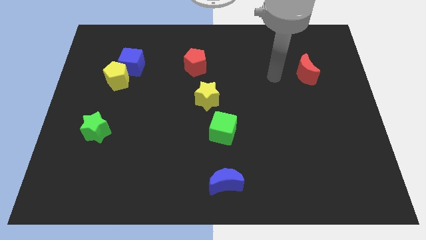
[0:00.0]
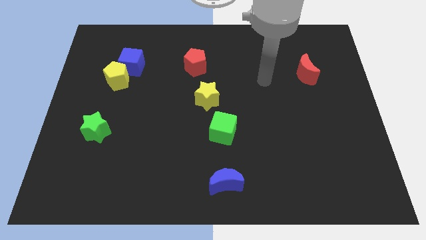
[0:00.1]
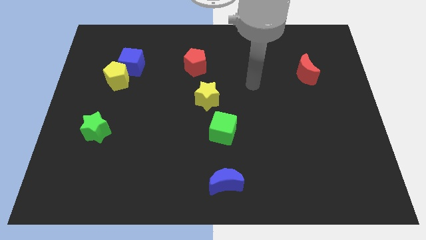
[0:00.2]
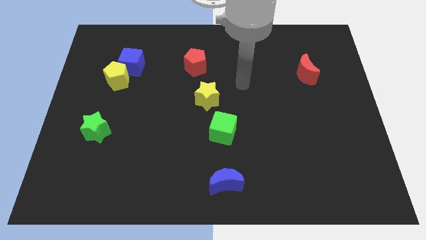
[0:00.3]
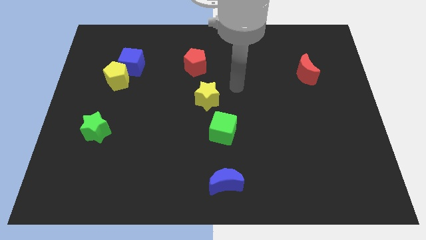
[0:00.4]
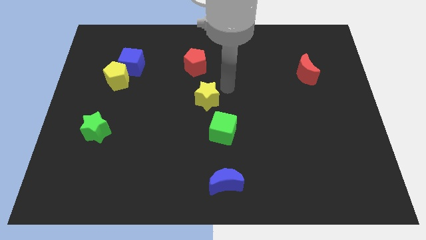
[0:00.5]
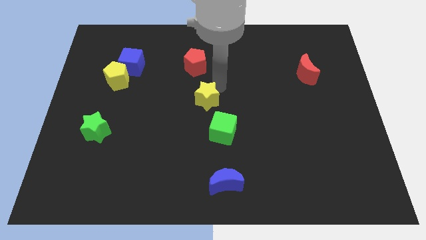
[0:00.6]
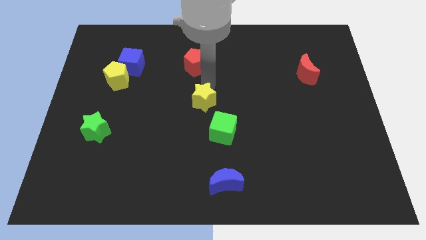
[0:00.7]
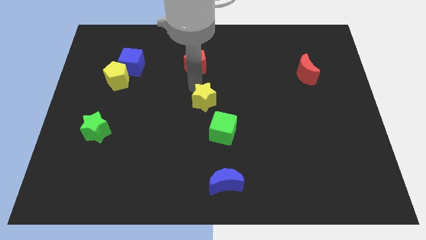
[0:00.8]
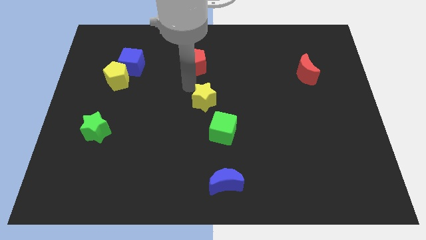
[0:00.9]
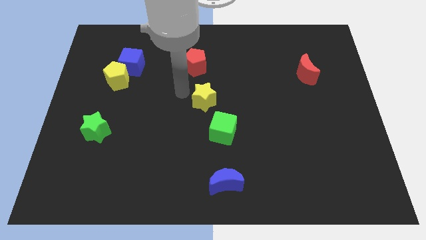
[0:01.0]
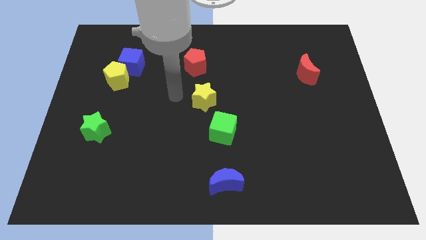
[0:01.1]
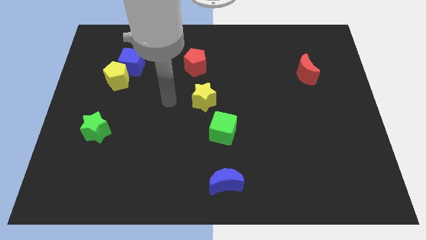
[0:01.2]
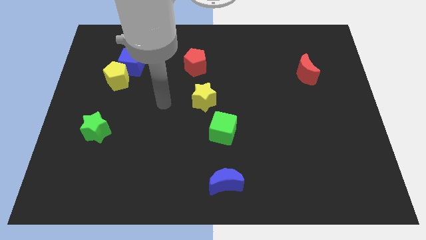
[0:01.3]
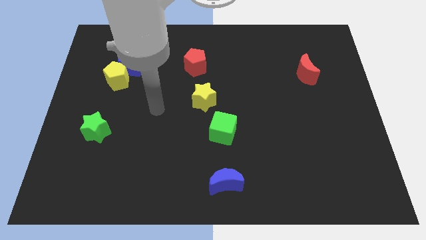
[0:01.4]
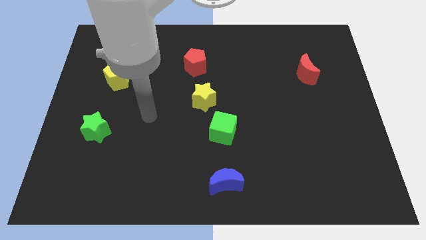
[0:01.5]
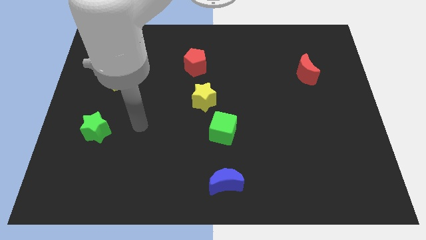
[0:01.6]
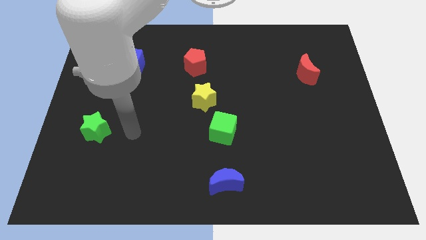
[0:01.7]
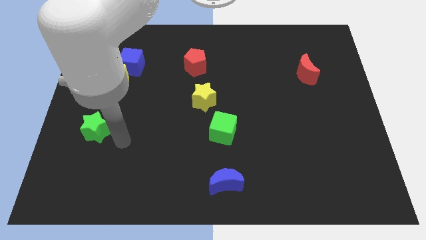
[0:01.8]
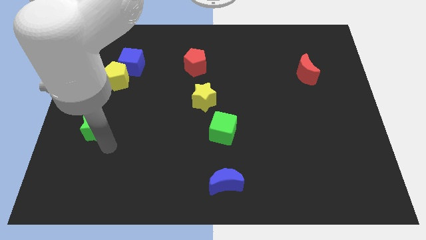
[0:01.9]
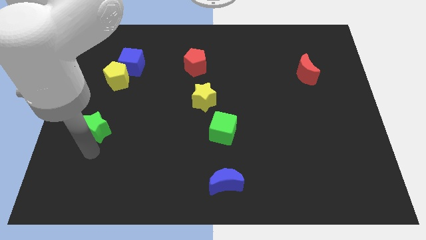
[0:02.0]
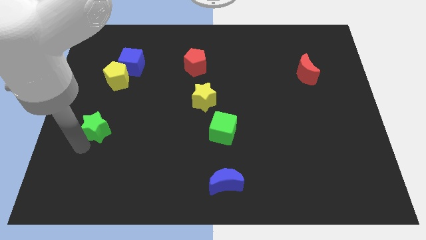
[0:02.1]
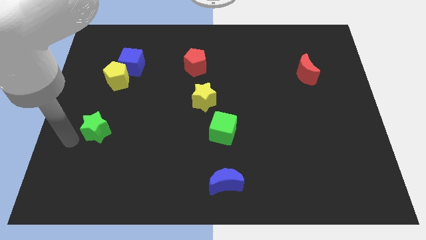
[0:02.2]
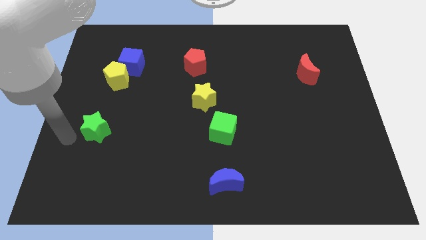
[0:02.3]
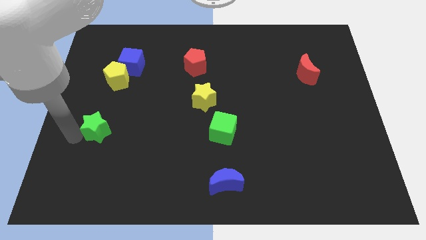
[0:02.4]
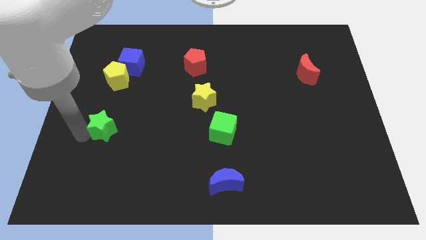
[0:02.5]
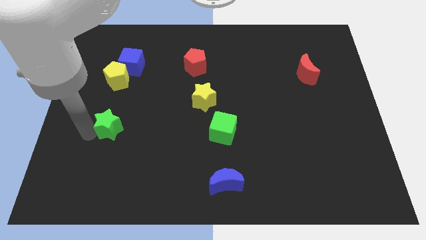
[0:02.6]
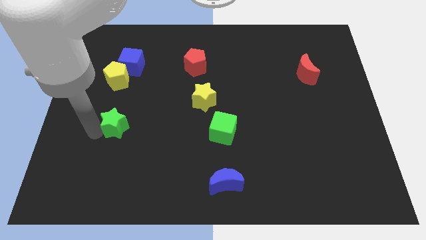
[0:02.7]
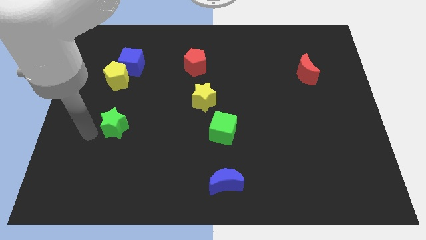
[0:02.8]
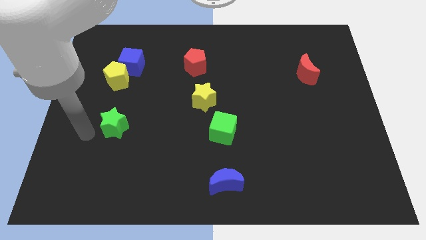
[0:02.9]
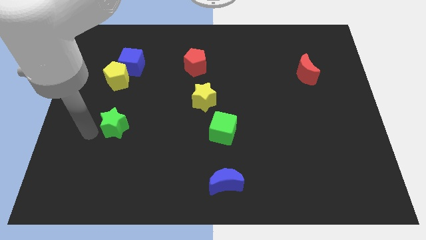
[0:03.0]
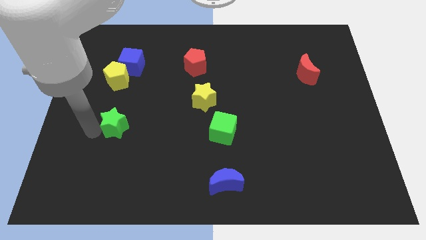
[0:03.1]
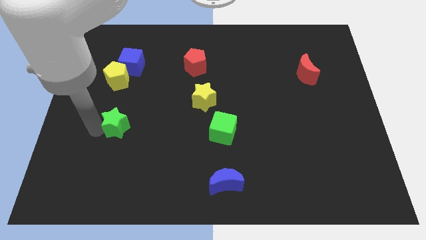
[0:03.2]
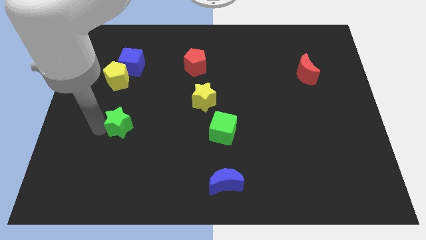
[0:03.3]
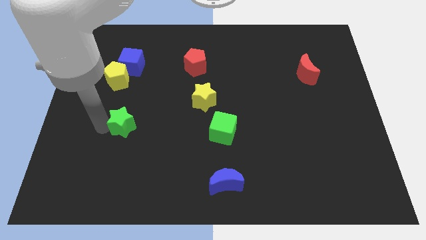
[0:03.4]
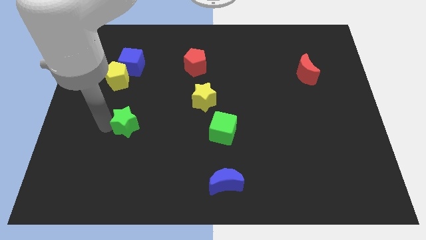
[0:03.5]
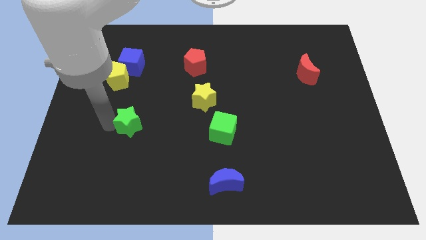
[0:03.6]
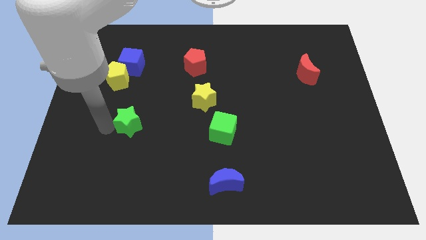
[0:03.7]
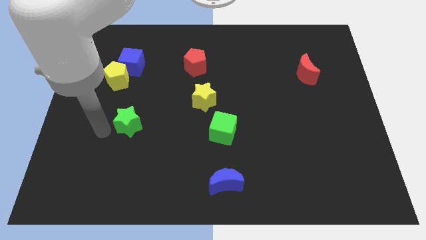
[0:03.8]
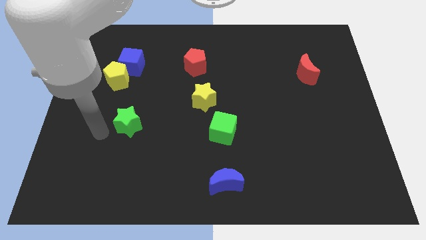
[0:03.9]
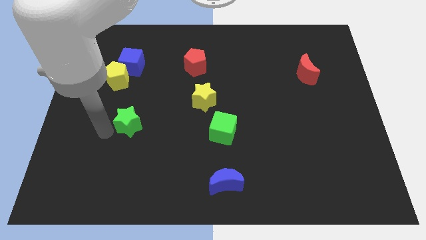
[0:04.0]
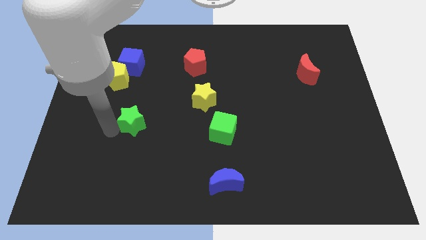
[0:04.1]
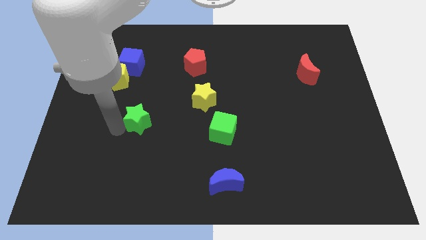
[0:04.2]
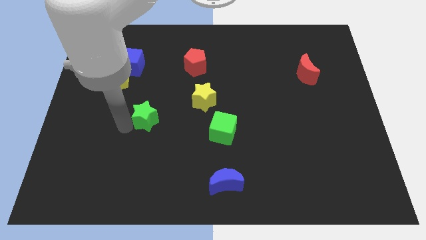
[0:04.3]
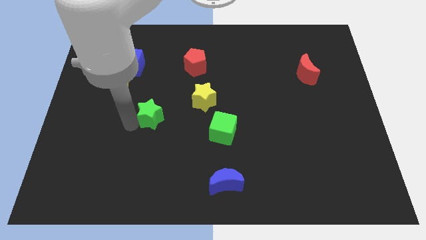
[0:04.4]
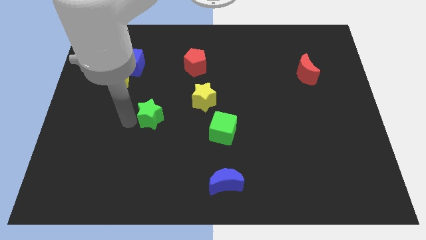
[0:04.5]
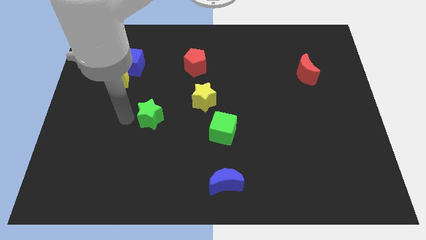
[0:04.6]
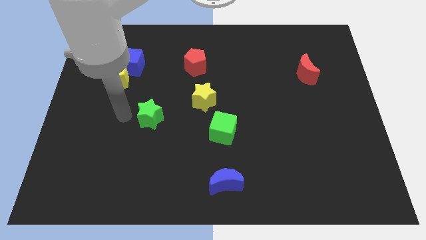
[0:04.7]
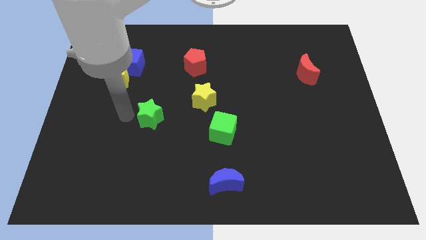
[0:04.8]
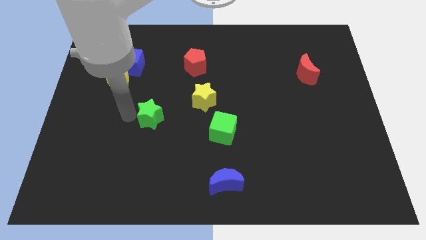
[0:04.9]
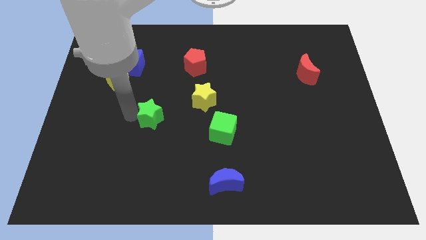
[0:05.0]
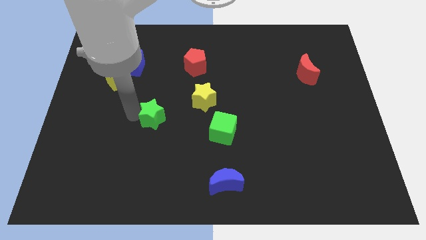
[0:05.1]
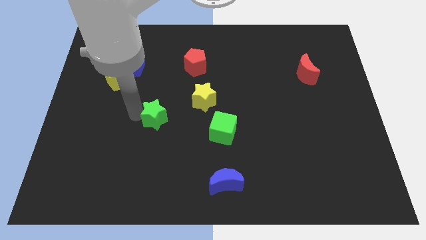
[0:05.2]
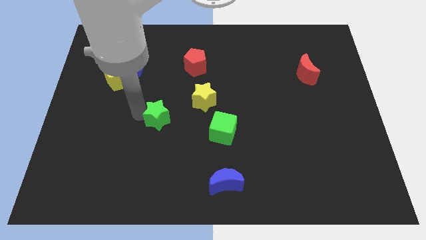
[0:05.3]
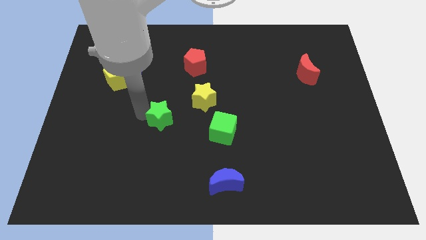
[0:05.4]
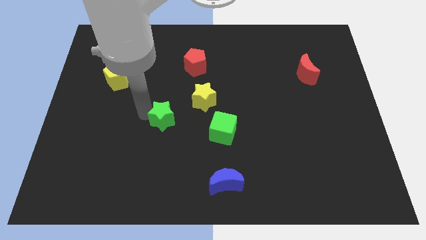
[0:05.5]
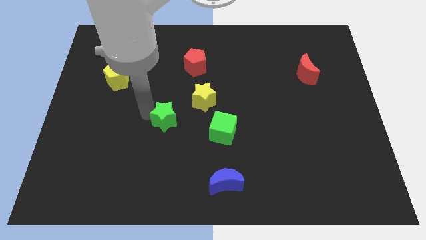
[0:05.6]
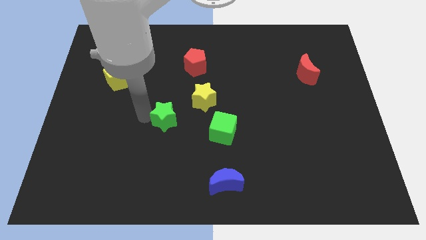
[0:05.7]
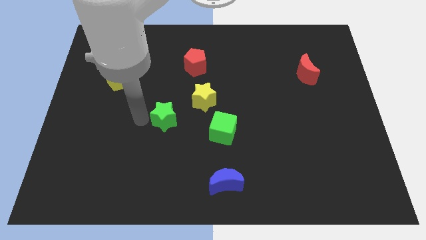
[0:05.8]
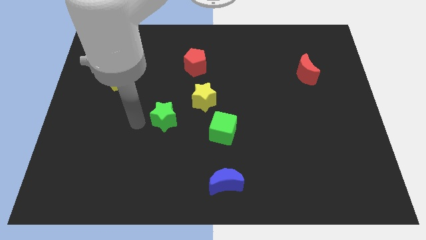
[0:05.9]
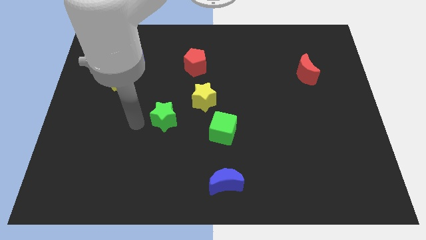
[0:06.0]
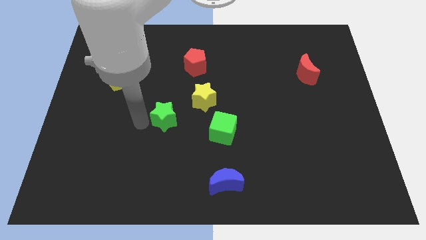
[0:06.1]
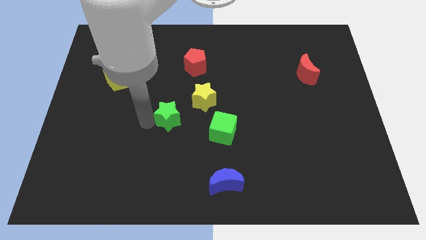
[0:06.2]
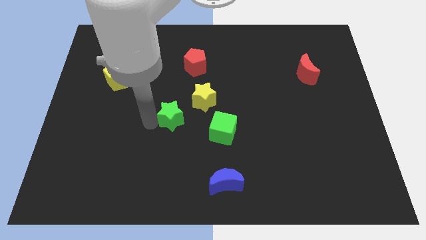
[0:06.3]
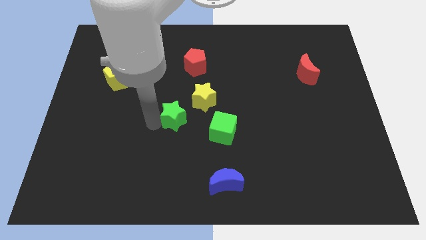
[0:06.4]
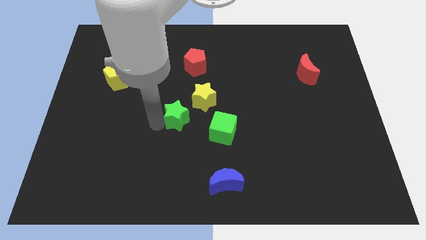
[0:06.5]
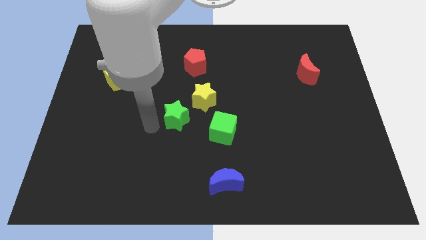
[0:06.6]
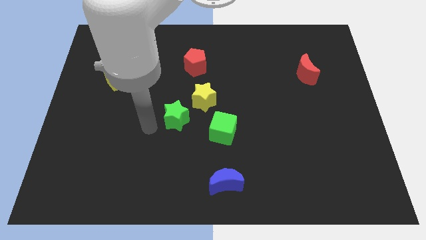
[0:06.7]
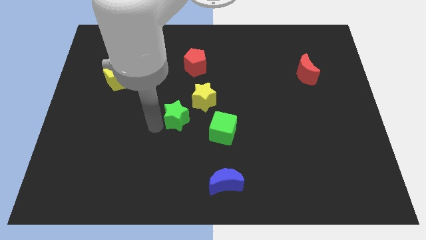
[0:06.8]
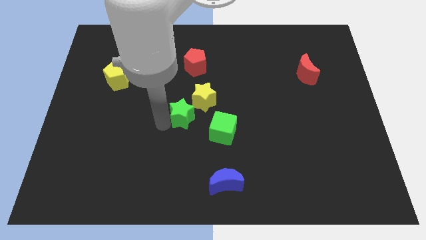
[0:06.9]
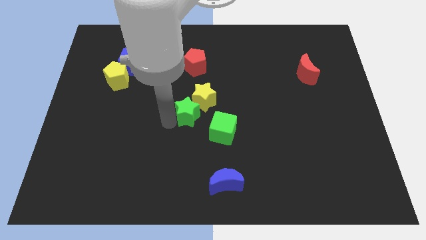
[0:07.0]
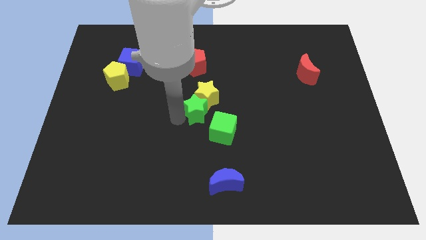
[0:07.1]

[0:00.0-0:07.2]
push the green star to the right

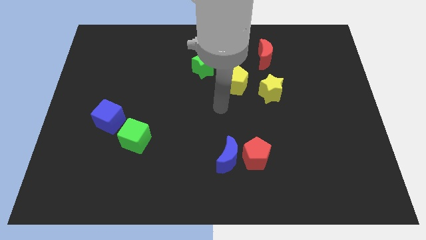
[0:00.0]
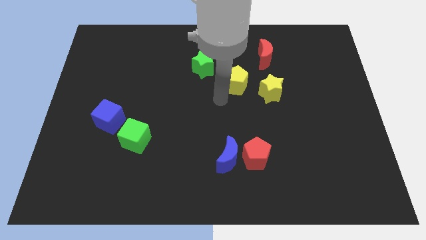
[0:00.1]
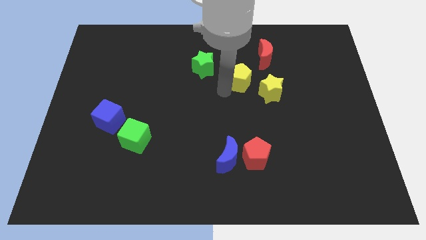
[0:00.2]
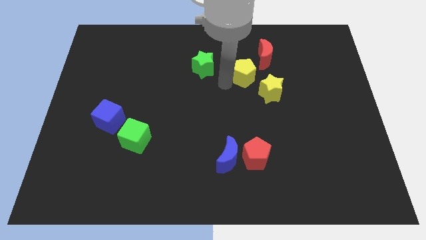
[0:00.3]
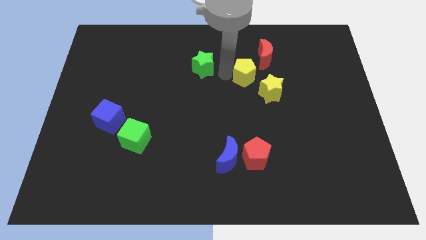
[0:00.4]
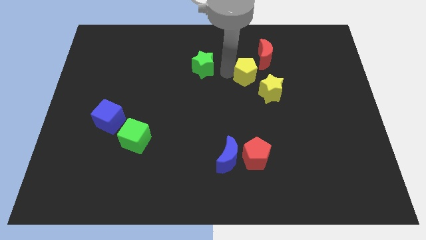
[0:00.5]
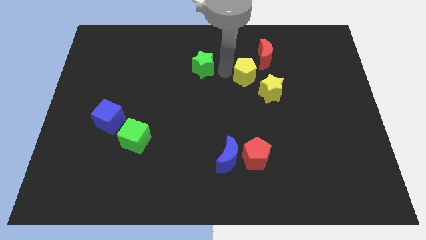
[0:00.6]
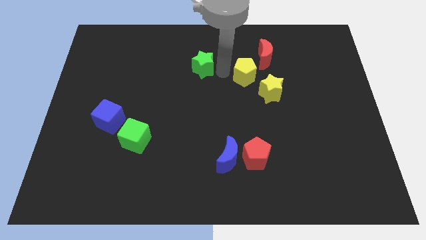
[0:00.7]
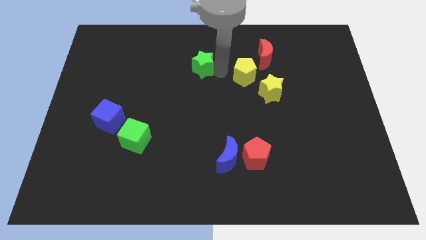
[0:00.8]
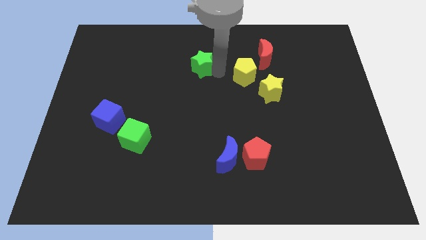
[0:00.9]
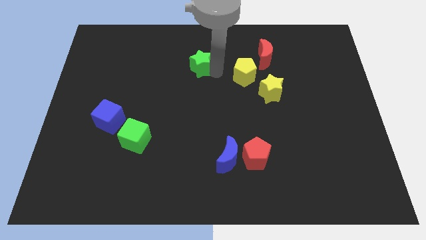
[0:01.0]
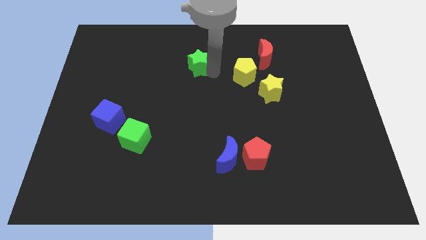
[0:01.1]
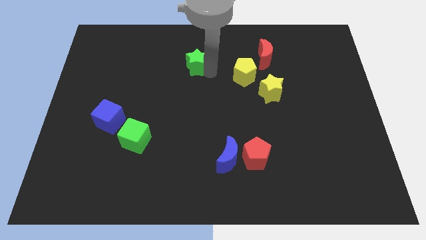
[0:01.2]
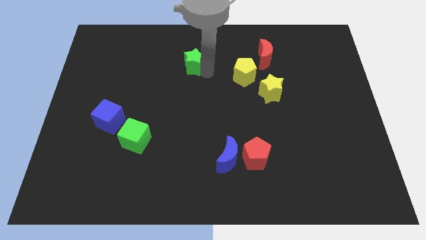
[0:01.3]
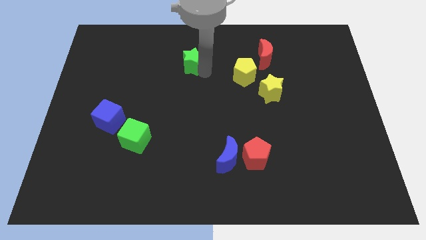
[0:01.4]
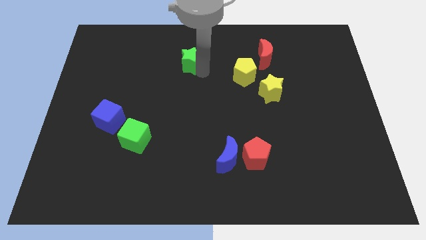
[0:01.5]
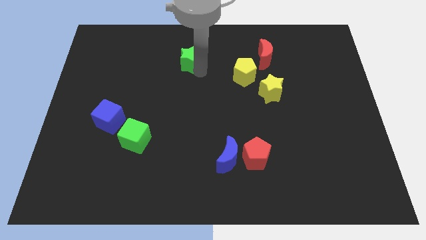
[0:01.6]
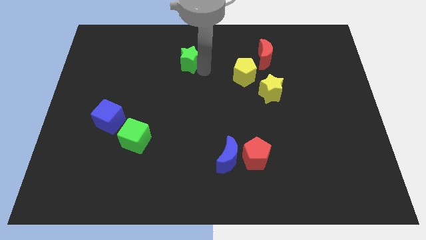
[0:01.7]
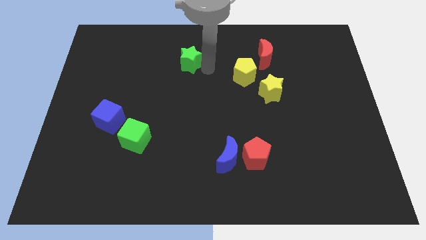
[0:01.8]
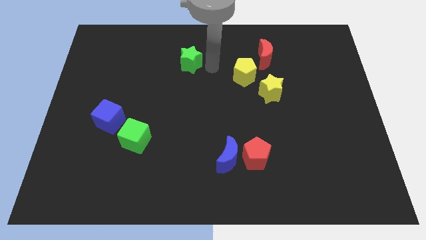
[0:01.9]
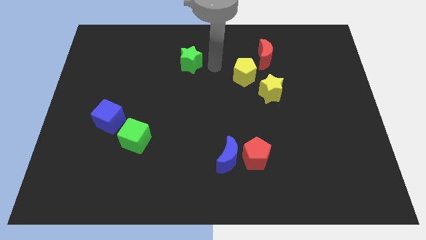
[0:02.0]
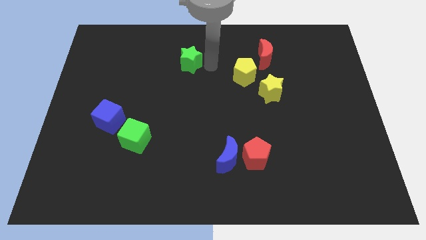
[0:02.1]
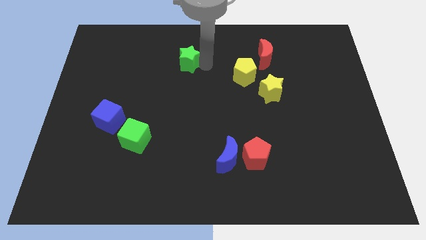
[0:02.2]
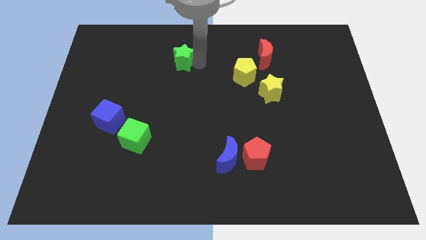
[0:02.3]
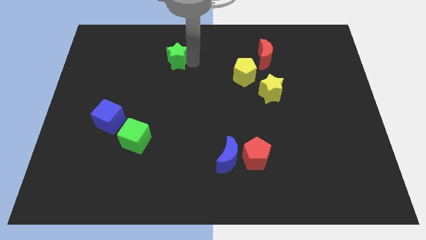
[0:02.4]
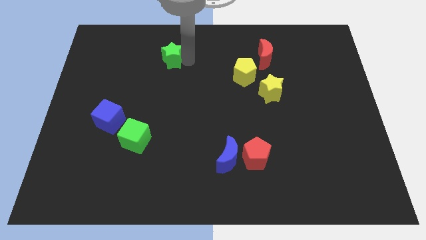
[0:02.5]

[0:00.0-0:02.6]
push the green star slightly left
